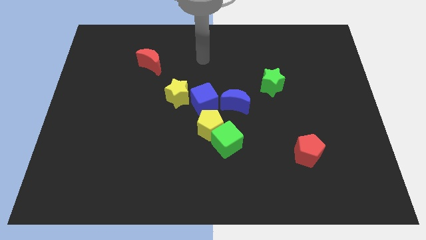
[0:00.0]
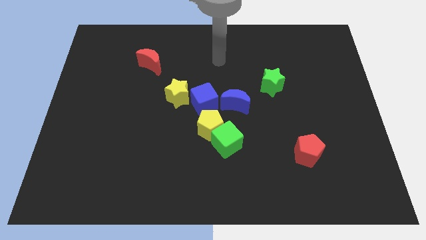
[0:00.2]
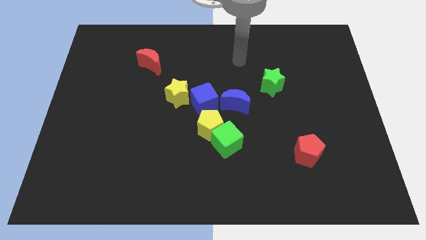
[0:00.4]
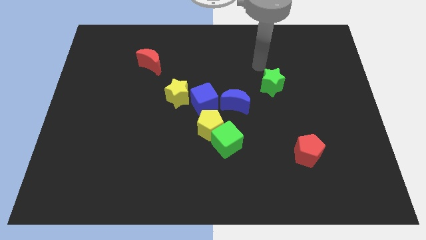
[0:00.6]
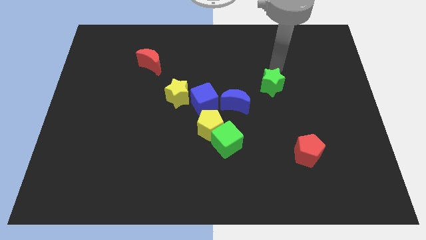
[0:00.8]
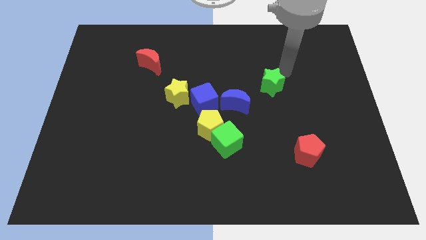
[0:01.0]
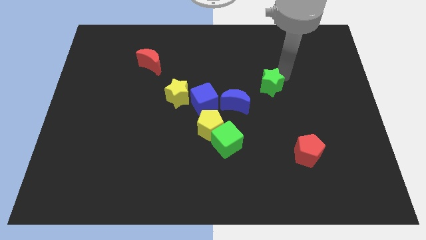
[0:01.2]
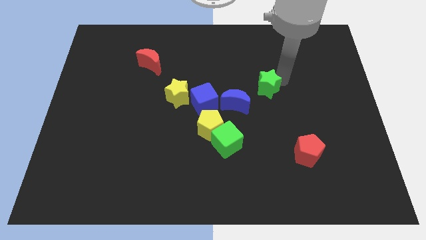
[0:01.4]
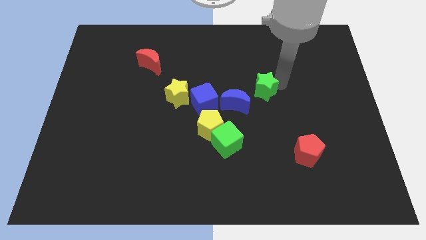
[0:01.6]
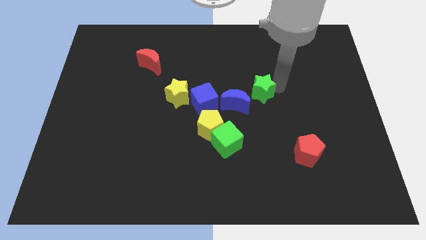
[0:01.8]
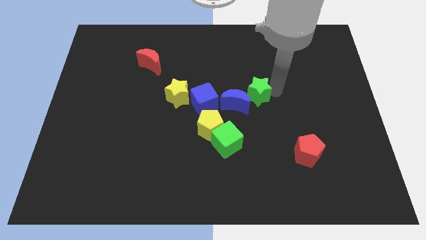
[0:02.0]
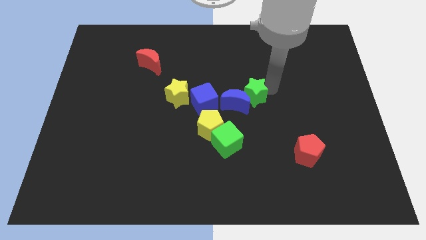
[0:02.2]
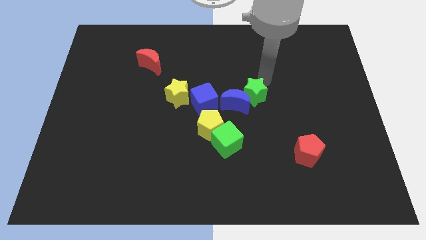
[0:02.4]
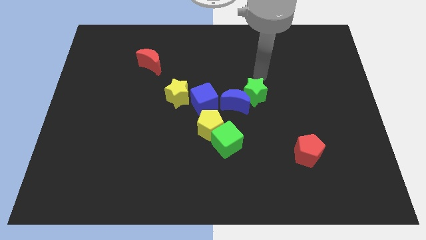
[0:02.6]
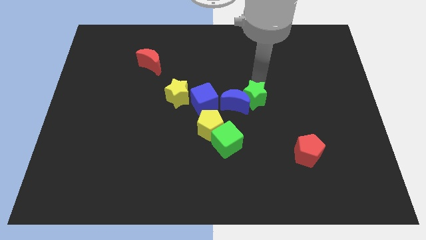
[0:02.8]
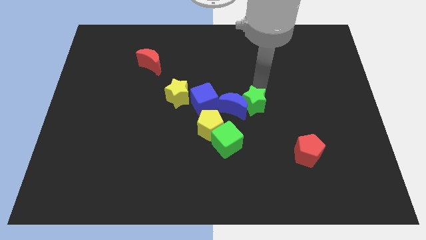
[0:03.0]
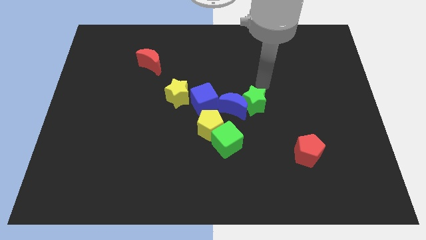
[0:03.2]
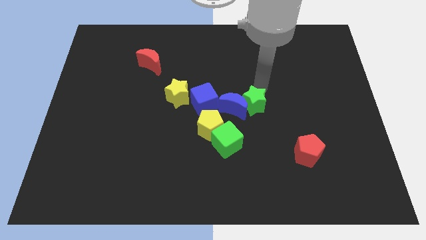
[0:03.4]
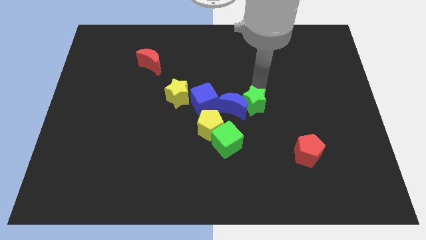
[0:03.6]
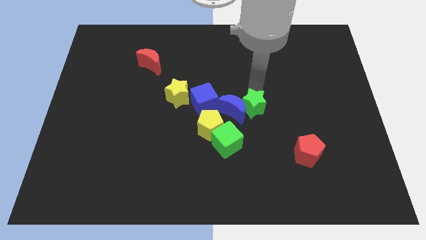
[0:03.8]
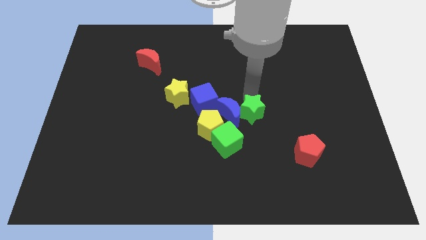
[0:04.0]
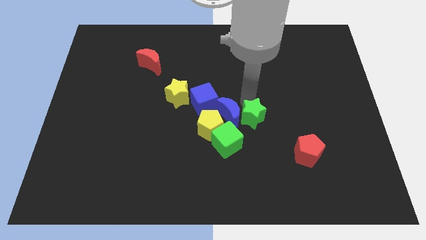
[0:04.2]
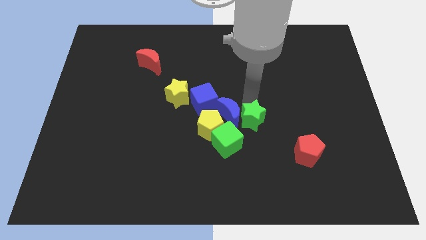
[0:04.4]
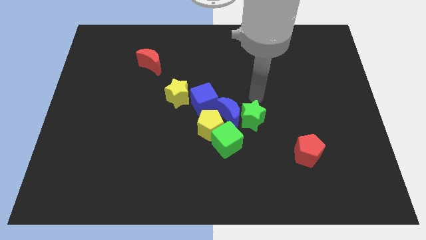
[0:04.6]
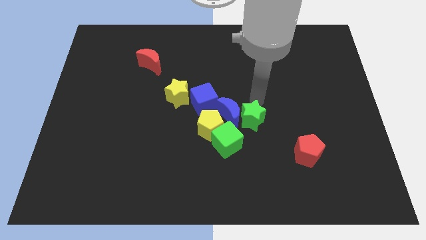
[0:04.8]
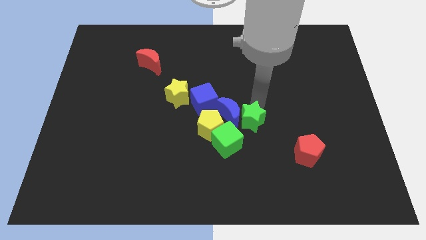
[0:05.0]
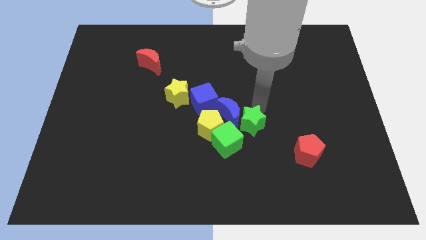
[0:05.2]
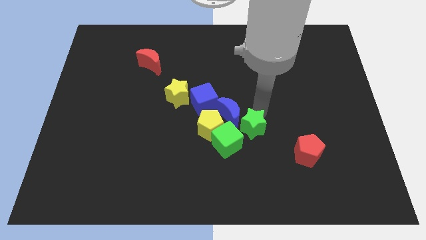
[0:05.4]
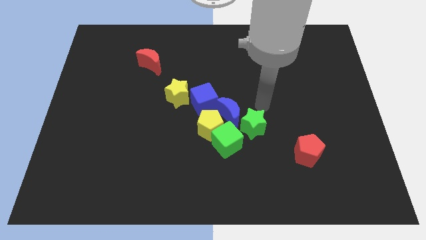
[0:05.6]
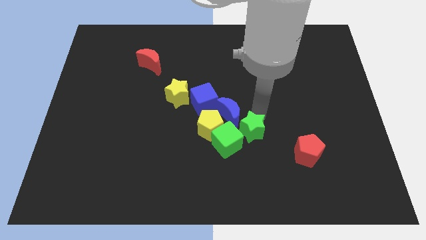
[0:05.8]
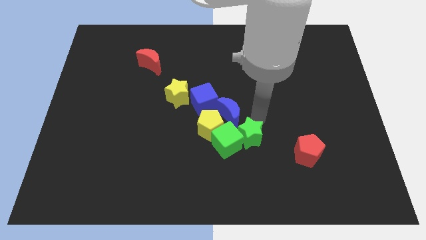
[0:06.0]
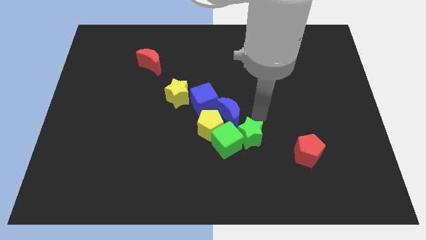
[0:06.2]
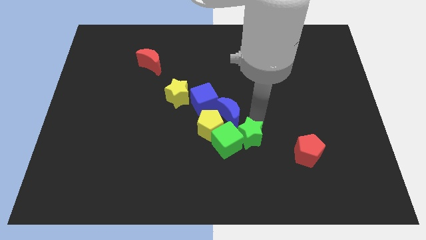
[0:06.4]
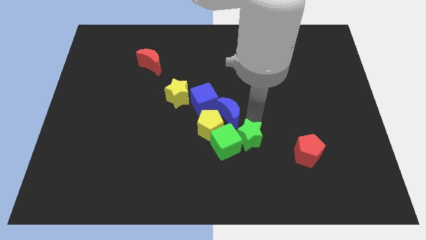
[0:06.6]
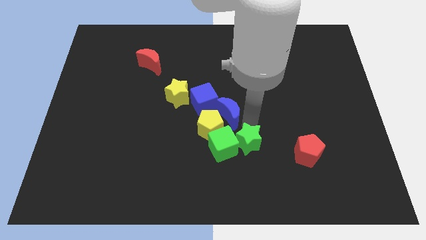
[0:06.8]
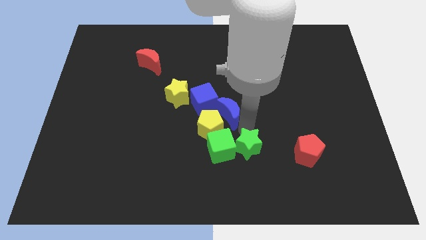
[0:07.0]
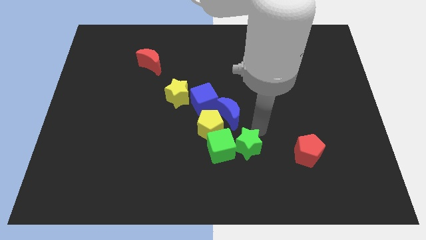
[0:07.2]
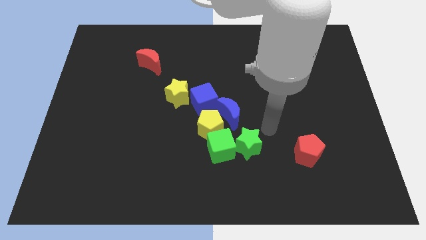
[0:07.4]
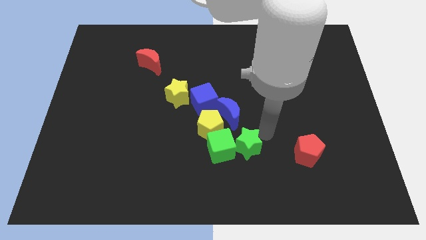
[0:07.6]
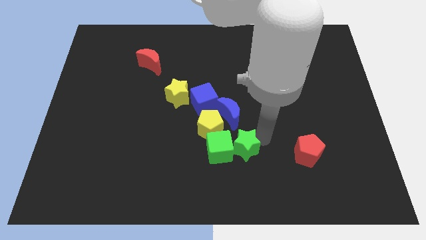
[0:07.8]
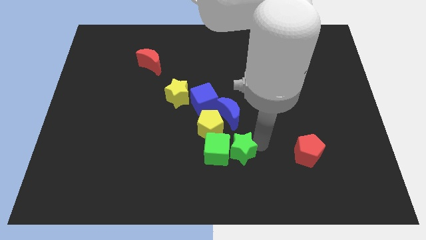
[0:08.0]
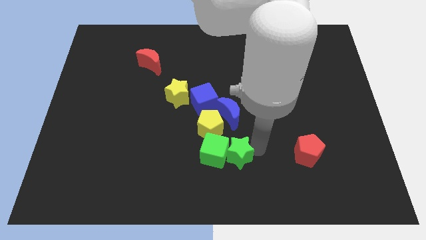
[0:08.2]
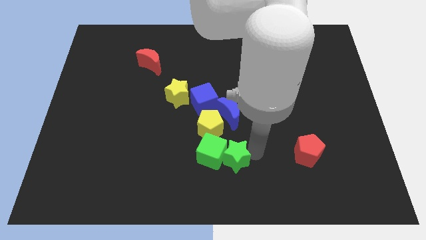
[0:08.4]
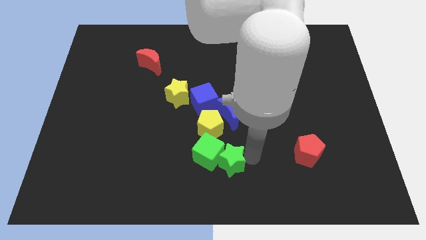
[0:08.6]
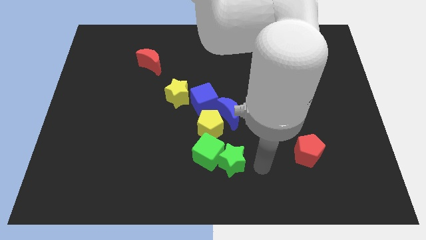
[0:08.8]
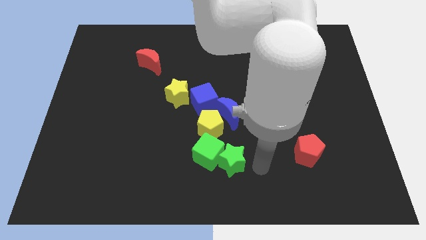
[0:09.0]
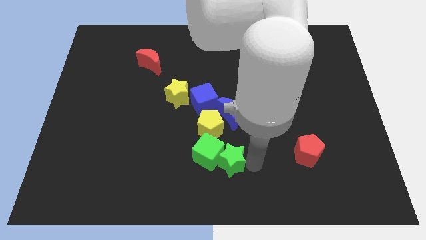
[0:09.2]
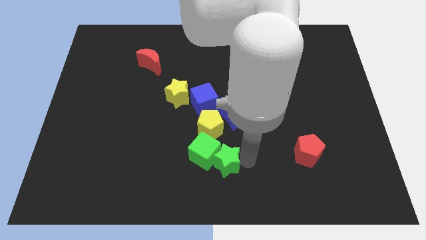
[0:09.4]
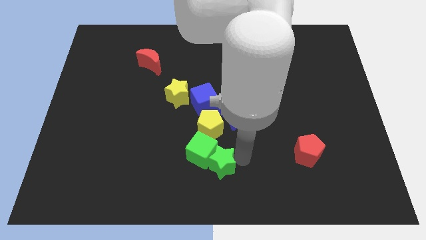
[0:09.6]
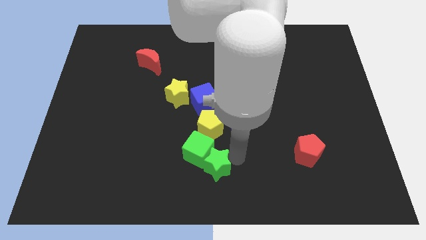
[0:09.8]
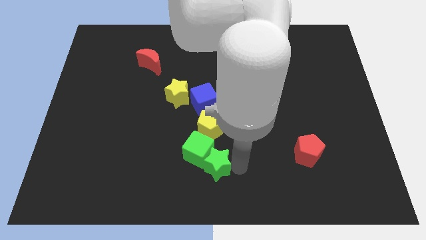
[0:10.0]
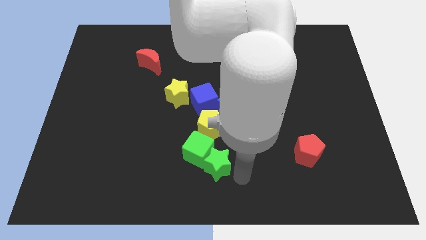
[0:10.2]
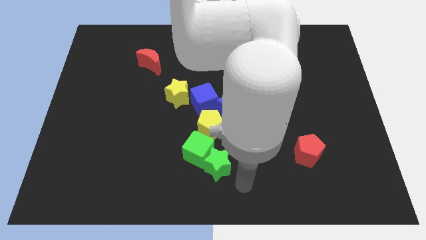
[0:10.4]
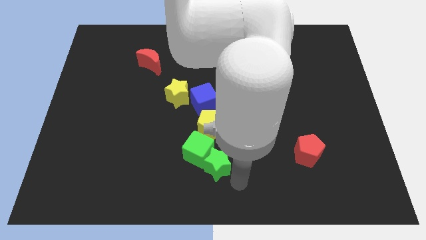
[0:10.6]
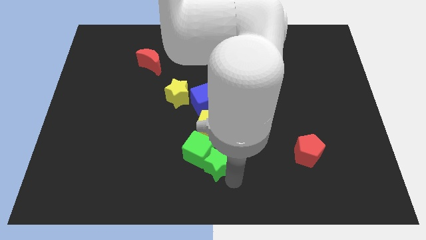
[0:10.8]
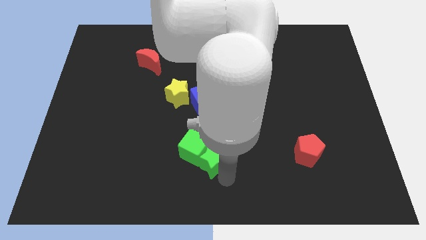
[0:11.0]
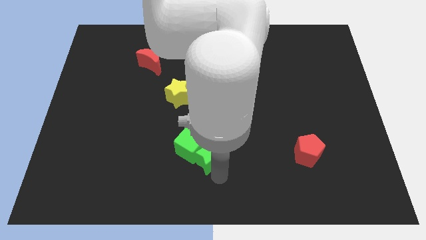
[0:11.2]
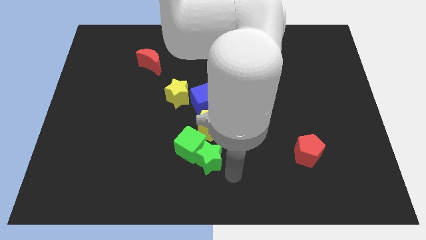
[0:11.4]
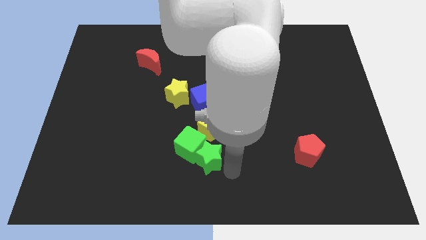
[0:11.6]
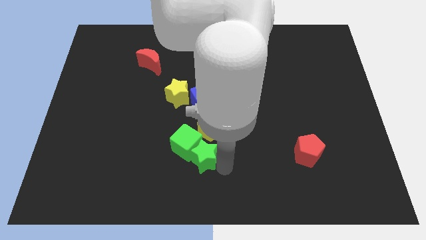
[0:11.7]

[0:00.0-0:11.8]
move the green star diagonally down and to the left of the yellow pentagon
